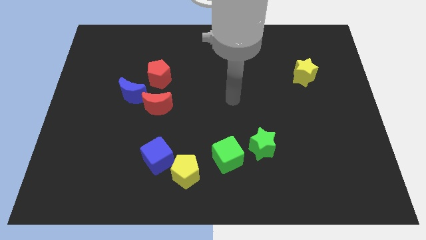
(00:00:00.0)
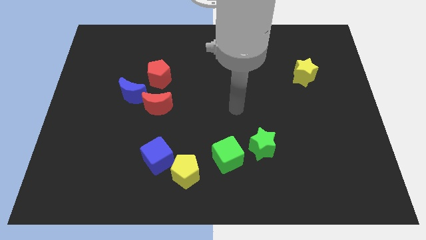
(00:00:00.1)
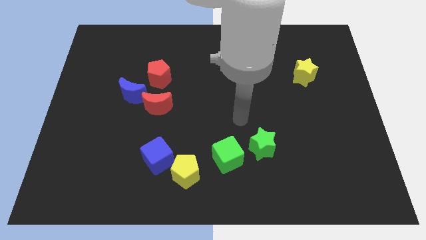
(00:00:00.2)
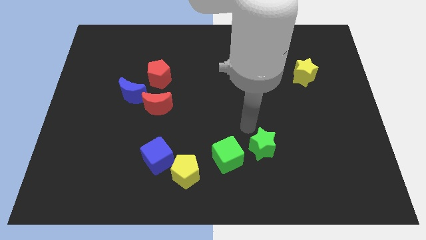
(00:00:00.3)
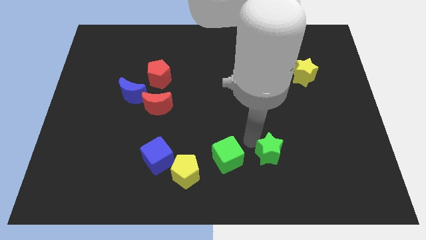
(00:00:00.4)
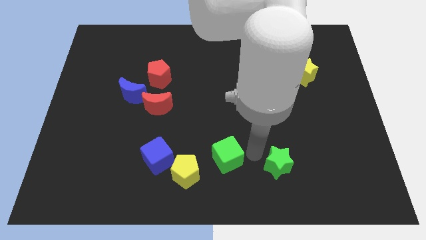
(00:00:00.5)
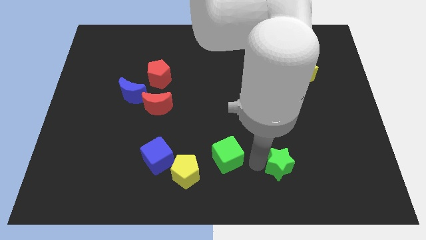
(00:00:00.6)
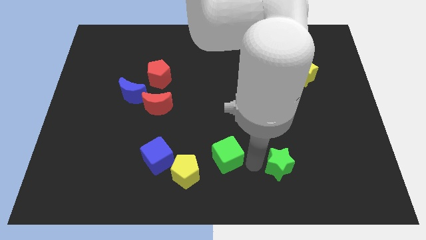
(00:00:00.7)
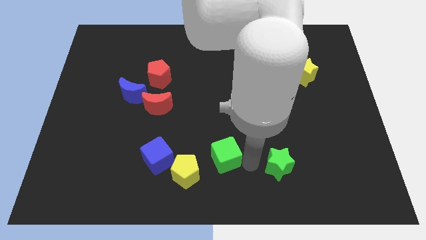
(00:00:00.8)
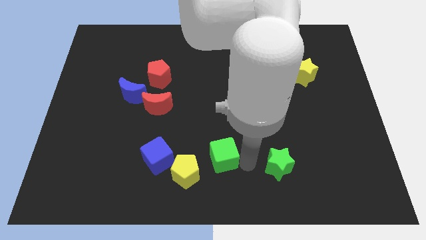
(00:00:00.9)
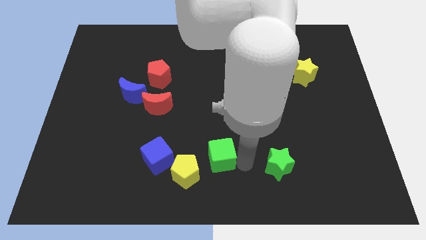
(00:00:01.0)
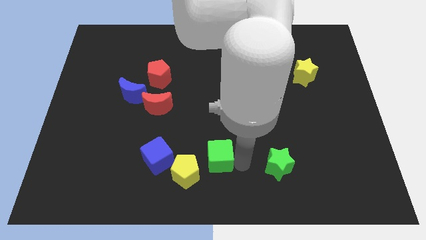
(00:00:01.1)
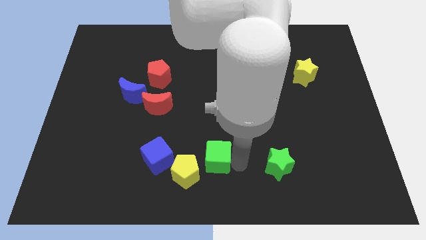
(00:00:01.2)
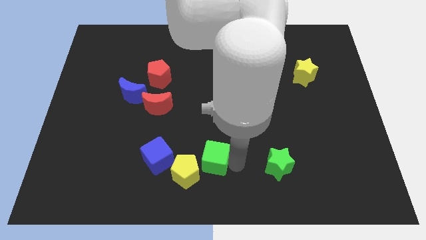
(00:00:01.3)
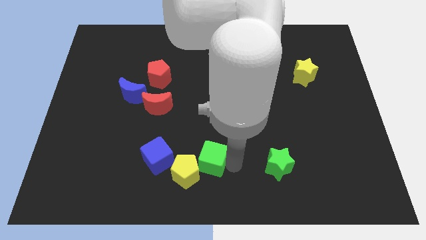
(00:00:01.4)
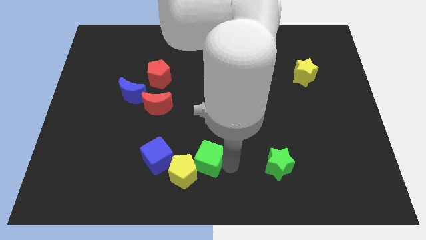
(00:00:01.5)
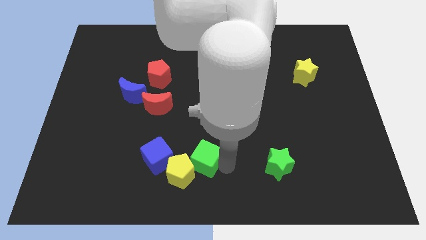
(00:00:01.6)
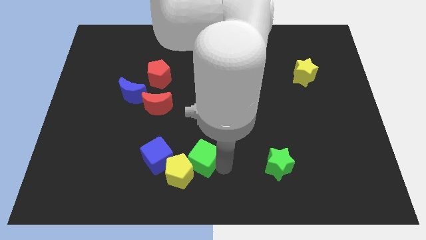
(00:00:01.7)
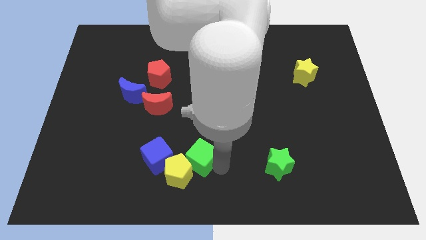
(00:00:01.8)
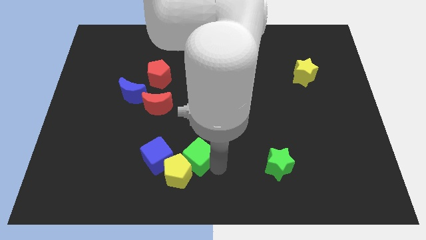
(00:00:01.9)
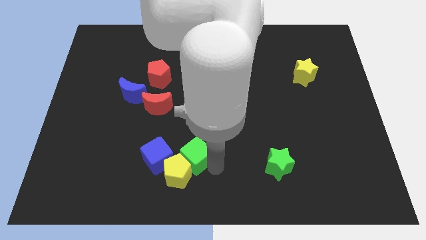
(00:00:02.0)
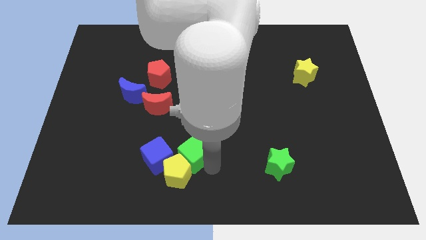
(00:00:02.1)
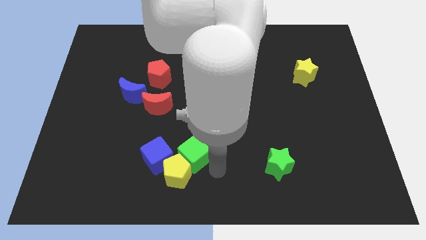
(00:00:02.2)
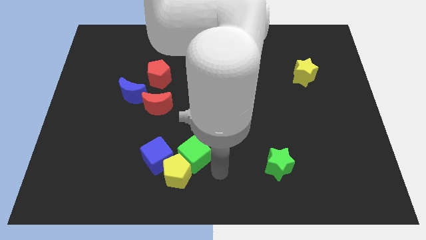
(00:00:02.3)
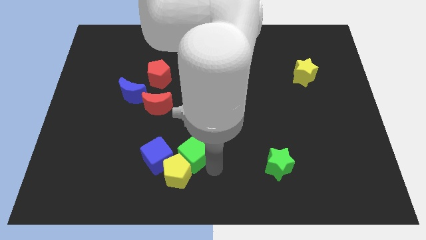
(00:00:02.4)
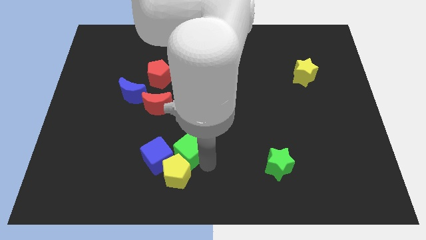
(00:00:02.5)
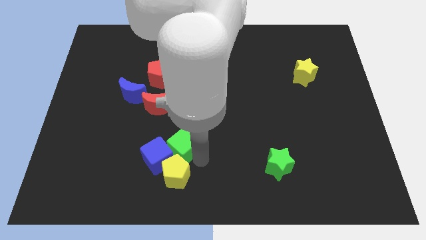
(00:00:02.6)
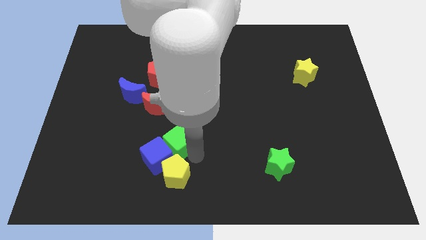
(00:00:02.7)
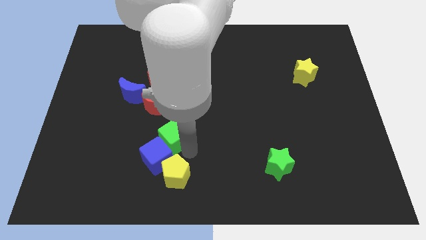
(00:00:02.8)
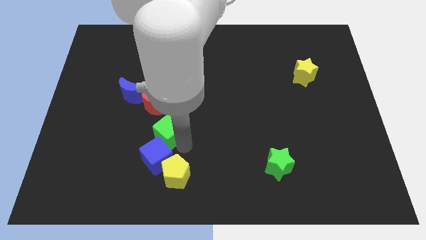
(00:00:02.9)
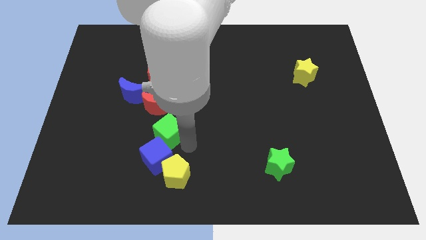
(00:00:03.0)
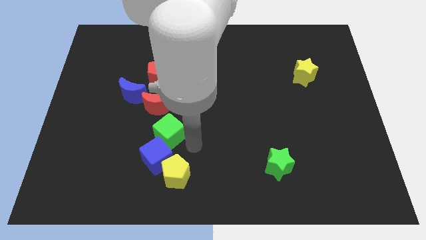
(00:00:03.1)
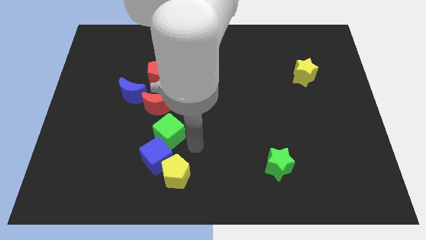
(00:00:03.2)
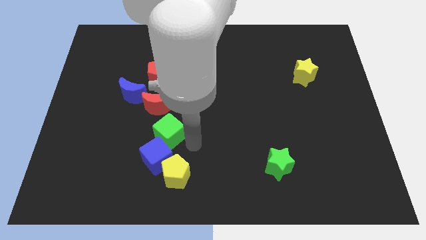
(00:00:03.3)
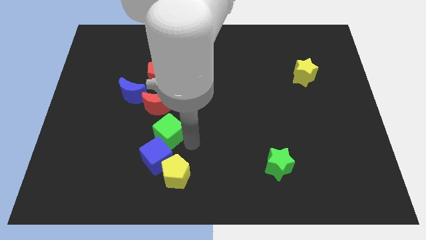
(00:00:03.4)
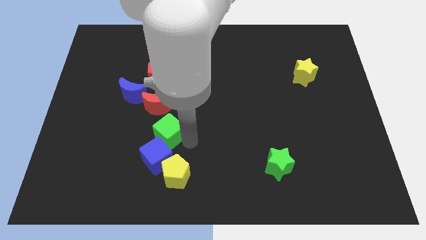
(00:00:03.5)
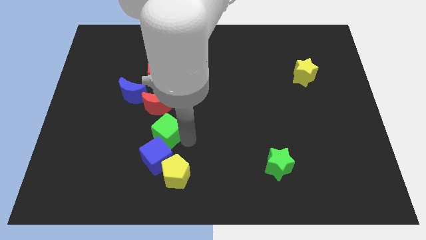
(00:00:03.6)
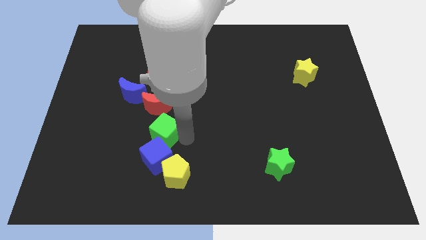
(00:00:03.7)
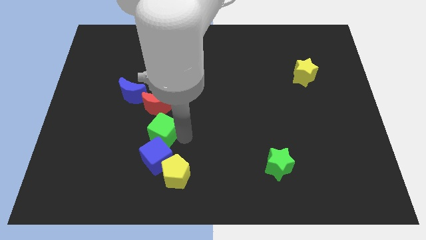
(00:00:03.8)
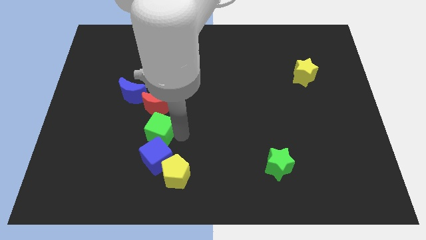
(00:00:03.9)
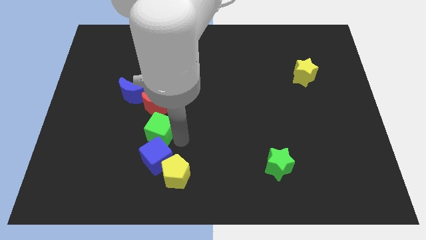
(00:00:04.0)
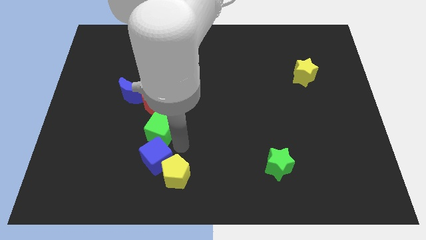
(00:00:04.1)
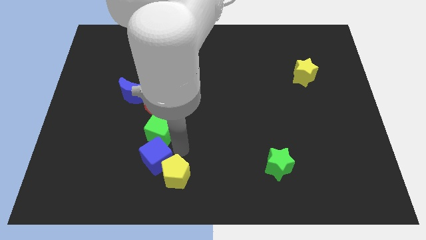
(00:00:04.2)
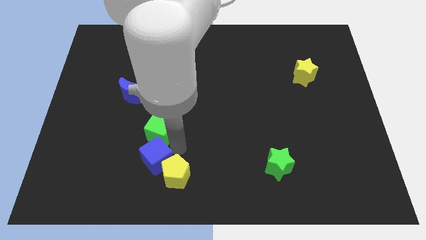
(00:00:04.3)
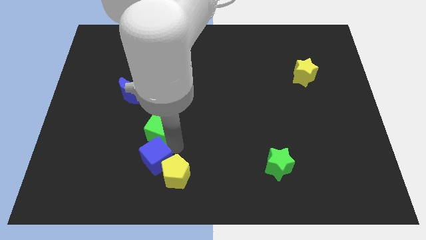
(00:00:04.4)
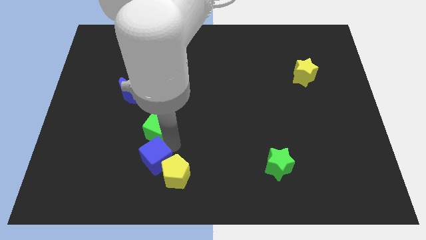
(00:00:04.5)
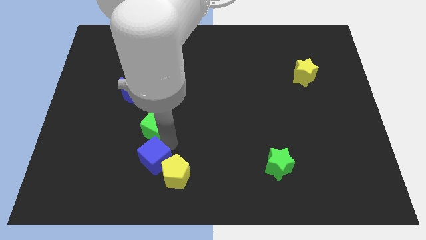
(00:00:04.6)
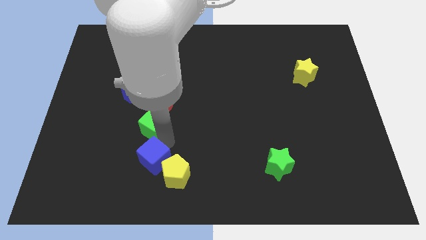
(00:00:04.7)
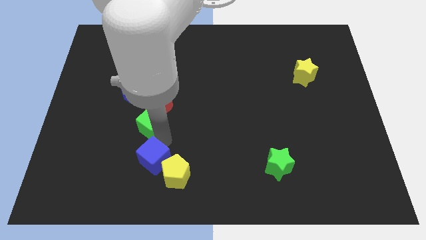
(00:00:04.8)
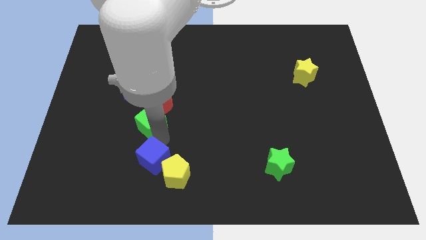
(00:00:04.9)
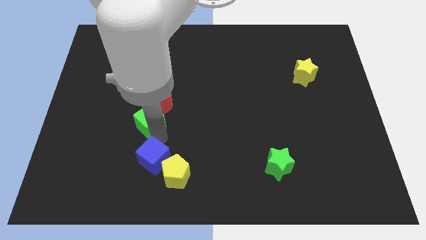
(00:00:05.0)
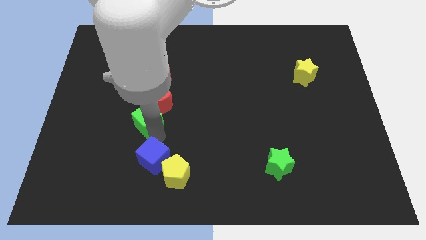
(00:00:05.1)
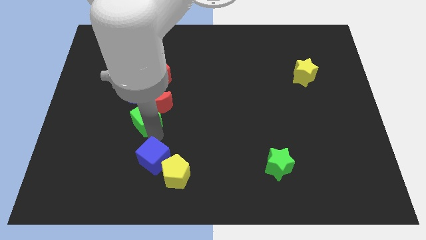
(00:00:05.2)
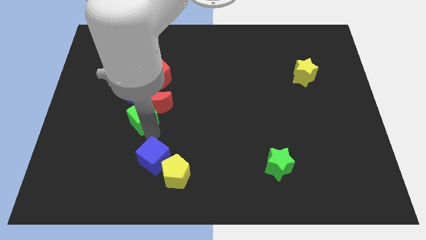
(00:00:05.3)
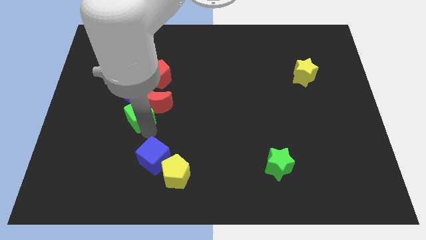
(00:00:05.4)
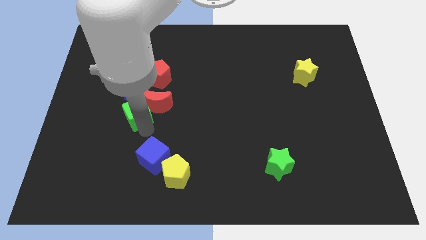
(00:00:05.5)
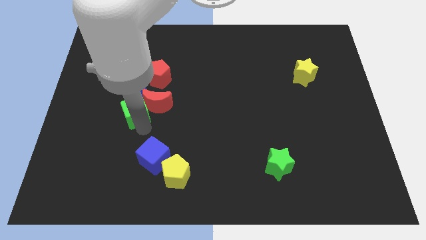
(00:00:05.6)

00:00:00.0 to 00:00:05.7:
push the green cube to the blue moon

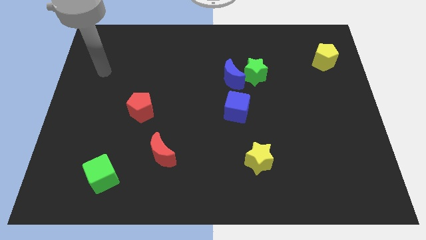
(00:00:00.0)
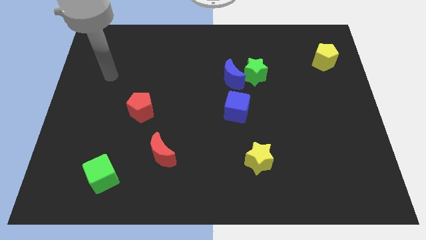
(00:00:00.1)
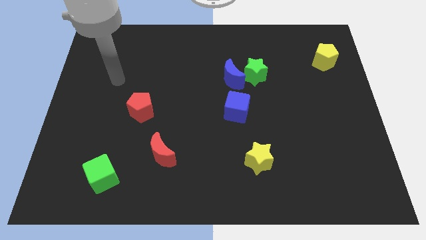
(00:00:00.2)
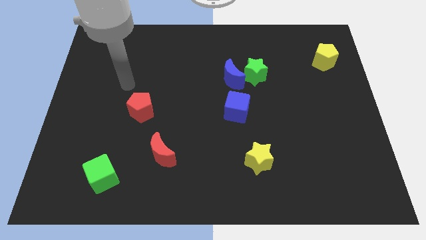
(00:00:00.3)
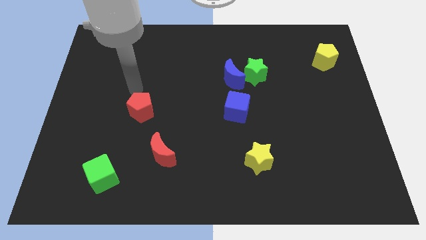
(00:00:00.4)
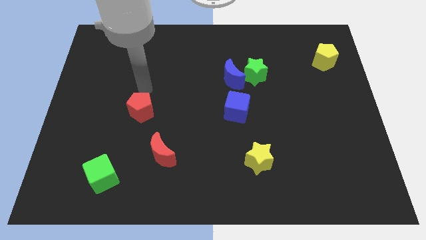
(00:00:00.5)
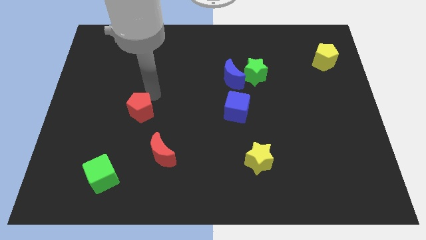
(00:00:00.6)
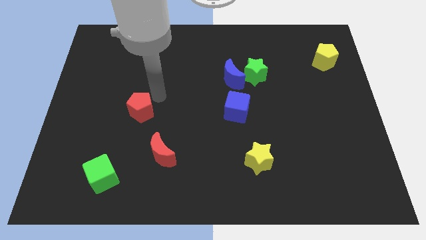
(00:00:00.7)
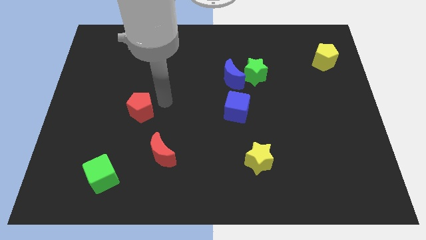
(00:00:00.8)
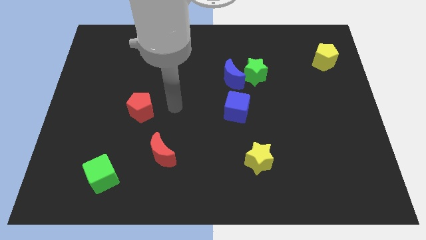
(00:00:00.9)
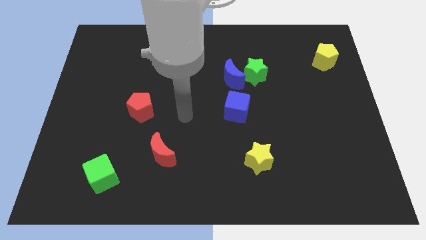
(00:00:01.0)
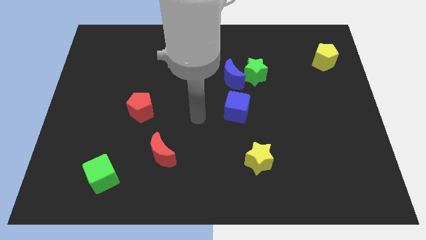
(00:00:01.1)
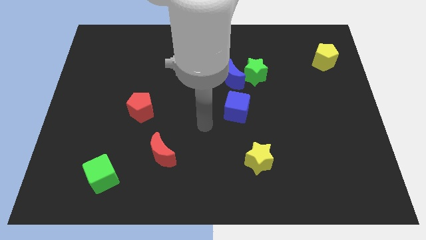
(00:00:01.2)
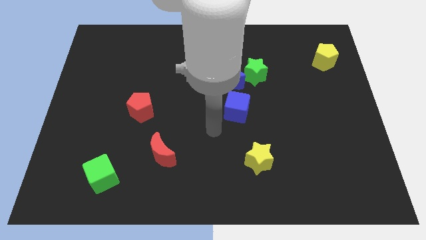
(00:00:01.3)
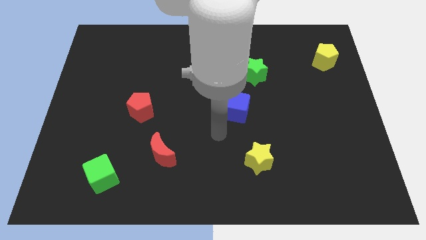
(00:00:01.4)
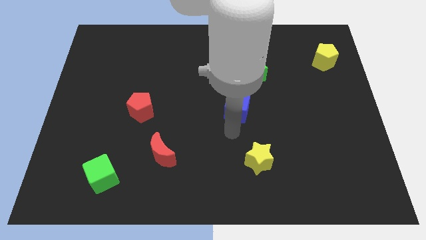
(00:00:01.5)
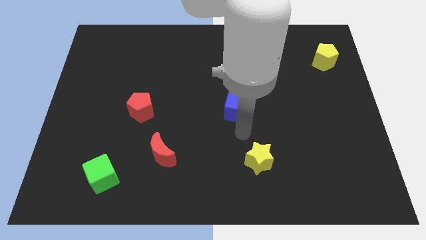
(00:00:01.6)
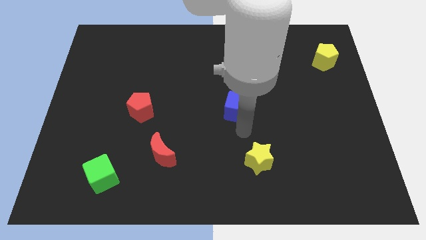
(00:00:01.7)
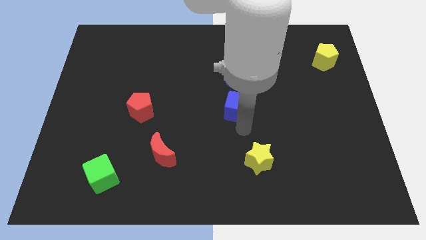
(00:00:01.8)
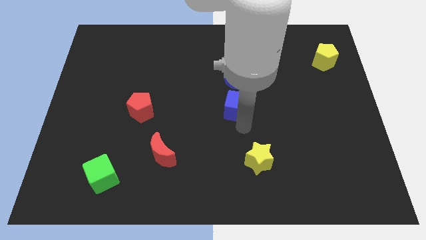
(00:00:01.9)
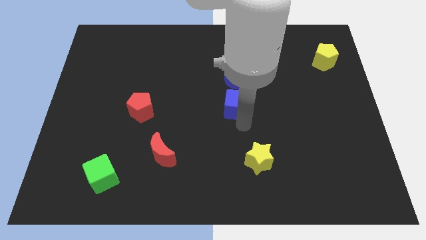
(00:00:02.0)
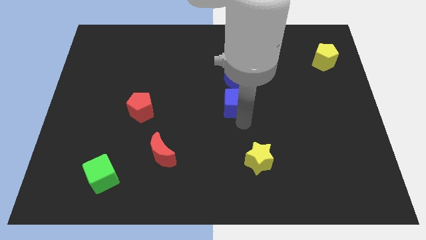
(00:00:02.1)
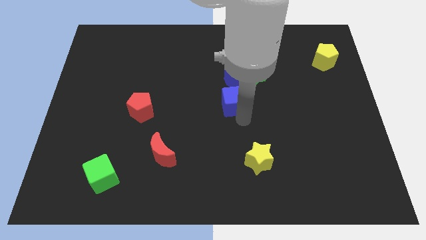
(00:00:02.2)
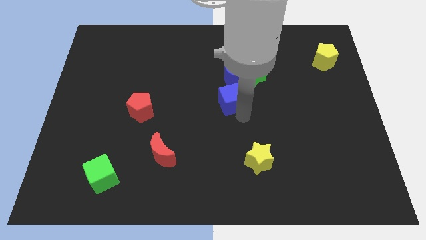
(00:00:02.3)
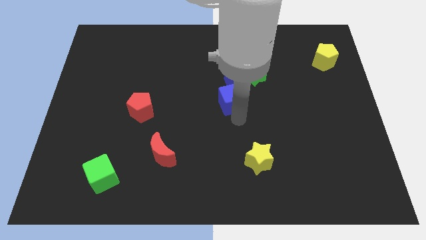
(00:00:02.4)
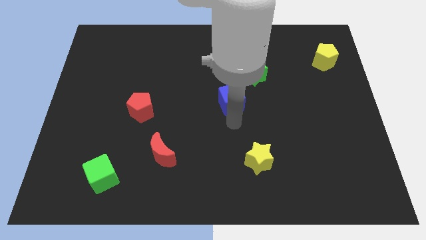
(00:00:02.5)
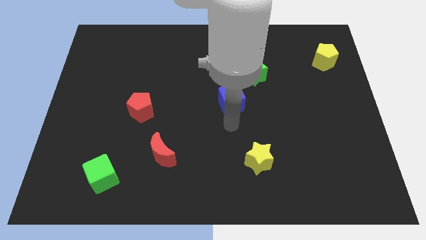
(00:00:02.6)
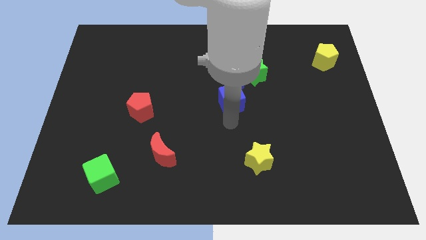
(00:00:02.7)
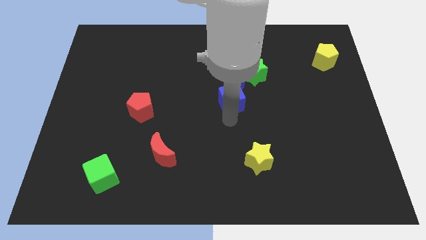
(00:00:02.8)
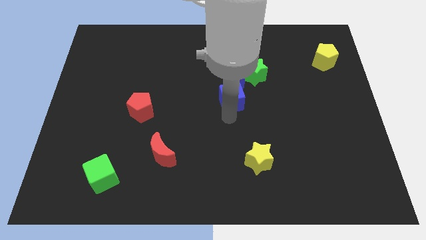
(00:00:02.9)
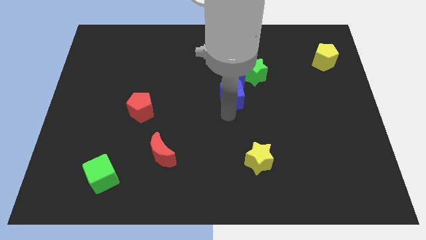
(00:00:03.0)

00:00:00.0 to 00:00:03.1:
slide the blue cube towards the blue moon
